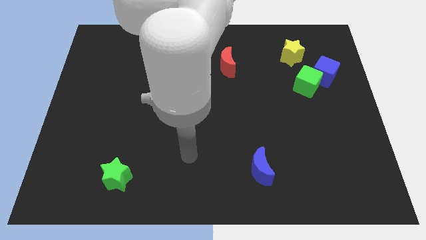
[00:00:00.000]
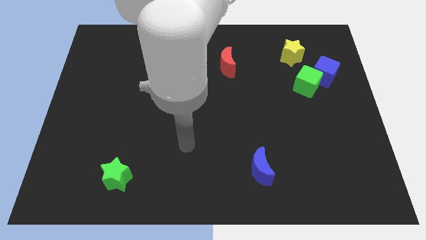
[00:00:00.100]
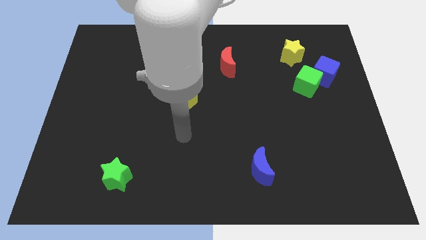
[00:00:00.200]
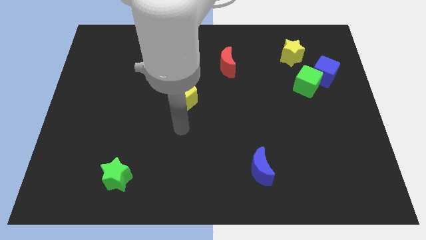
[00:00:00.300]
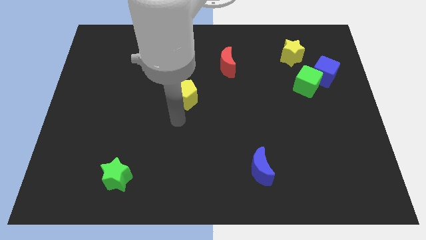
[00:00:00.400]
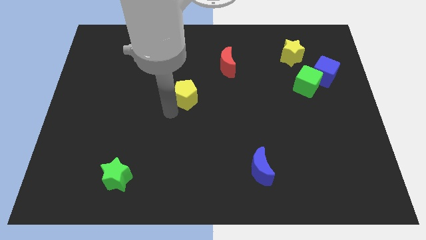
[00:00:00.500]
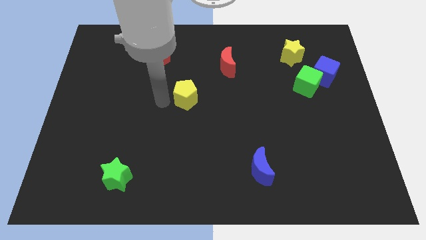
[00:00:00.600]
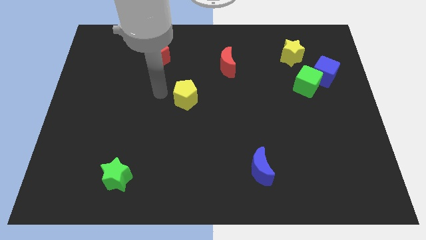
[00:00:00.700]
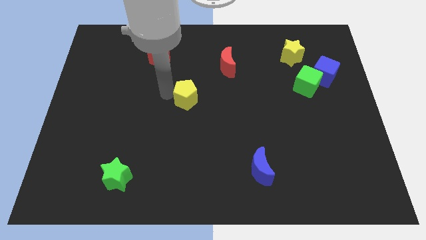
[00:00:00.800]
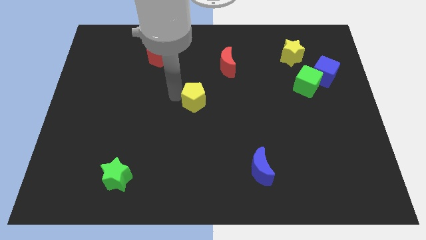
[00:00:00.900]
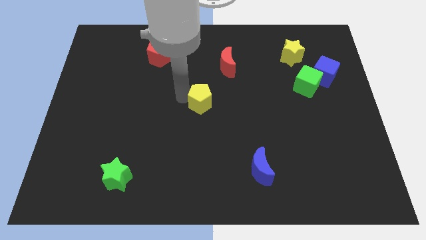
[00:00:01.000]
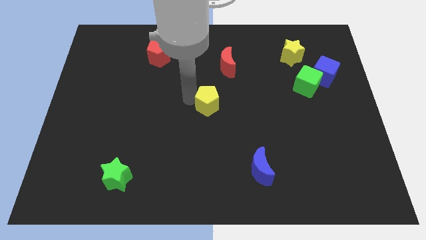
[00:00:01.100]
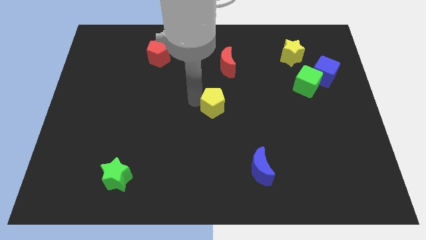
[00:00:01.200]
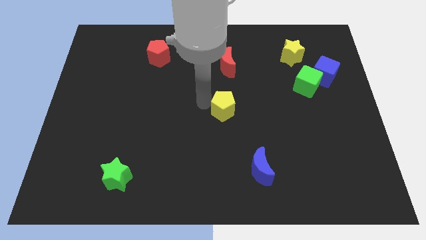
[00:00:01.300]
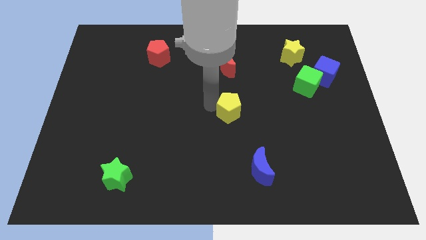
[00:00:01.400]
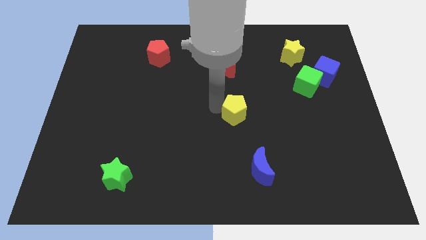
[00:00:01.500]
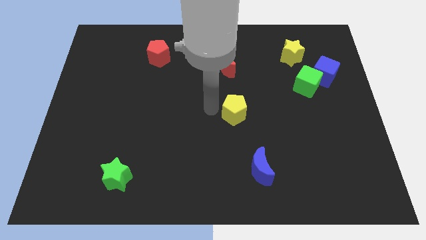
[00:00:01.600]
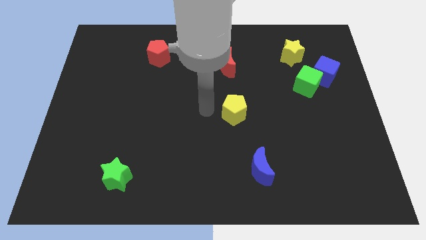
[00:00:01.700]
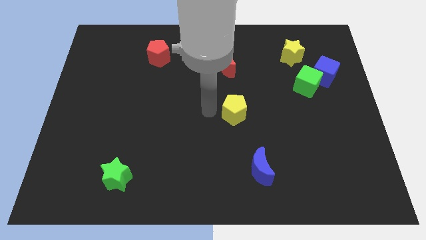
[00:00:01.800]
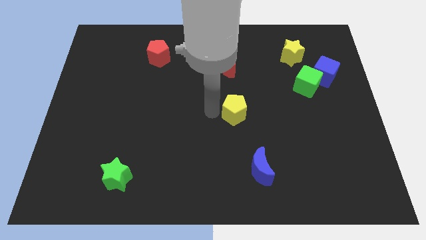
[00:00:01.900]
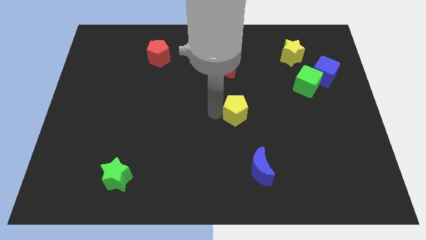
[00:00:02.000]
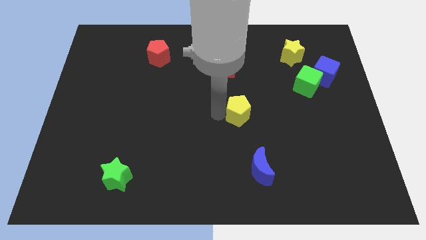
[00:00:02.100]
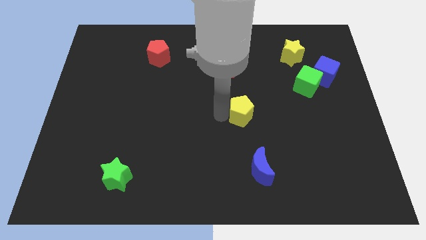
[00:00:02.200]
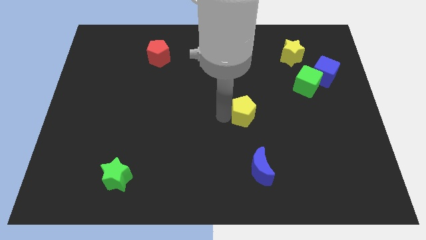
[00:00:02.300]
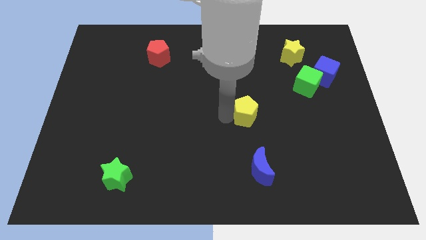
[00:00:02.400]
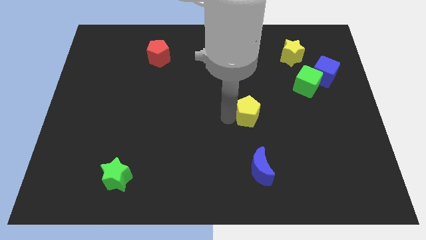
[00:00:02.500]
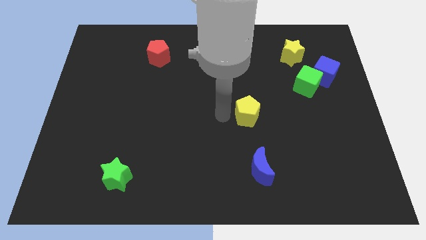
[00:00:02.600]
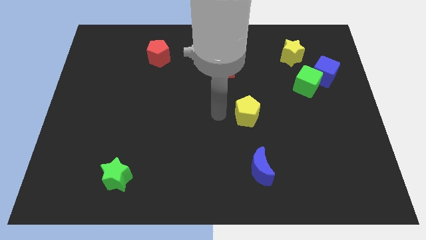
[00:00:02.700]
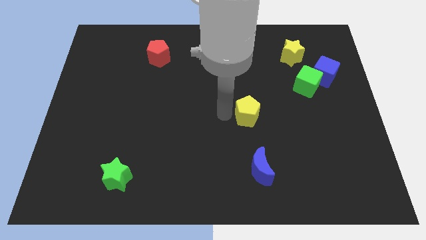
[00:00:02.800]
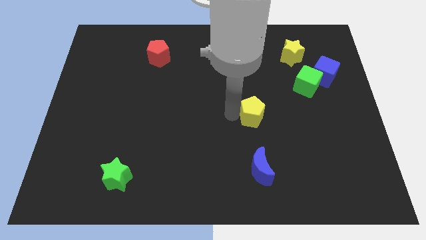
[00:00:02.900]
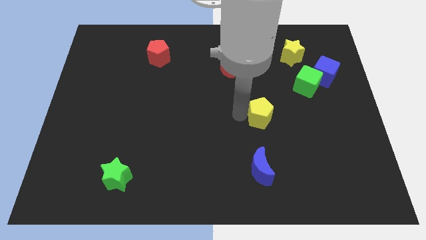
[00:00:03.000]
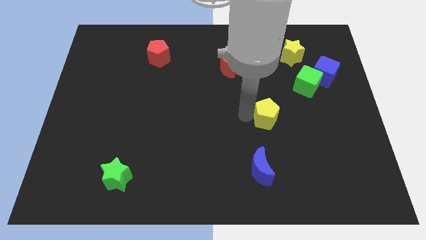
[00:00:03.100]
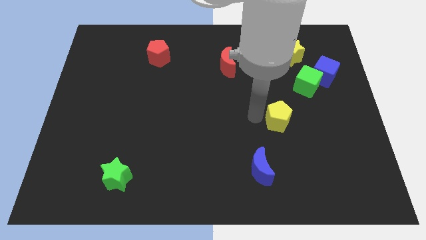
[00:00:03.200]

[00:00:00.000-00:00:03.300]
push the yellow pentagon right

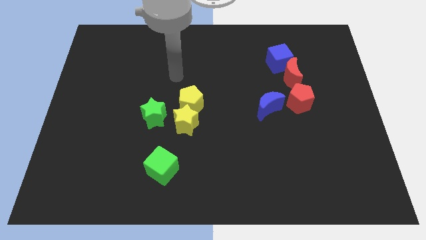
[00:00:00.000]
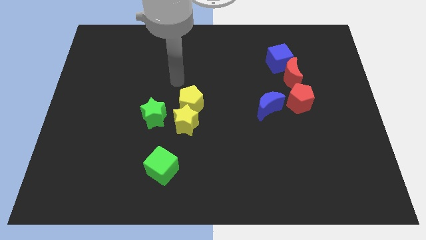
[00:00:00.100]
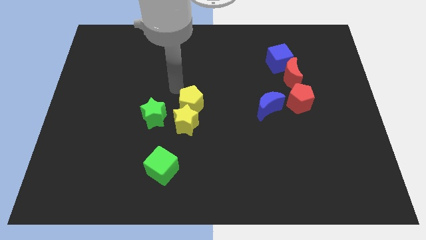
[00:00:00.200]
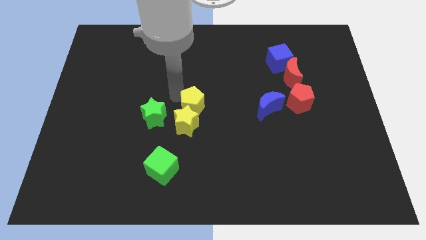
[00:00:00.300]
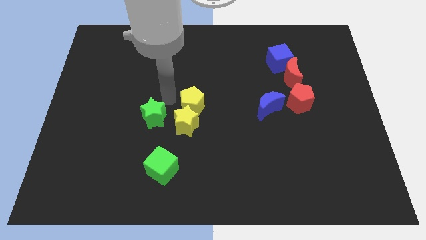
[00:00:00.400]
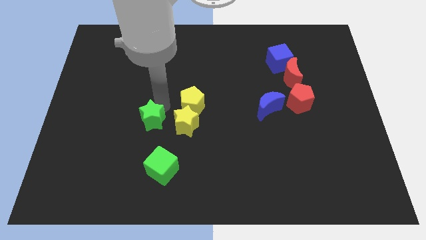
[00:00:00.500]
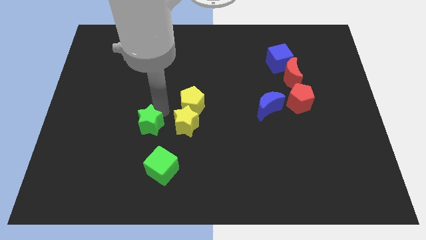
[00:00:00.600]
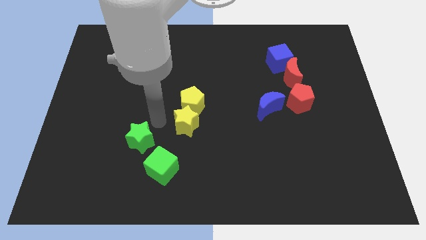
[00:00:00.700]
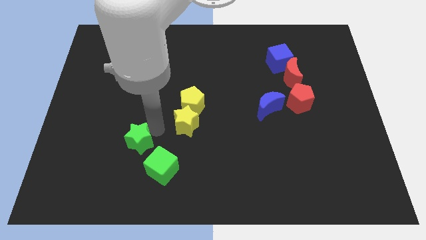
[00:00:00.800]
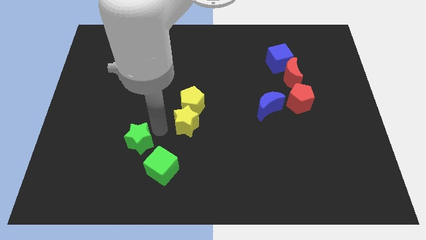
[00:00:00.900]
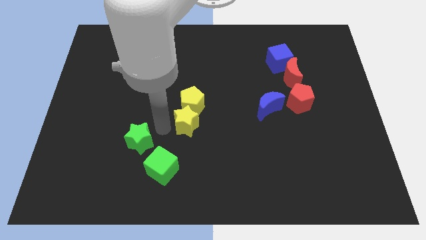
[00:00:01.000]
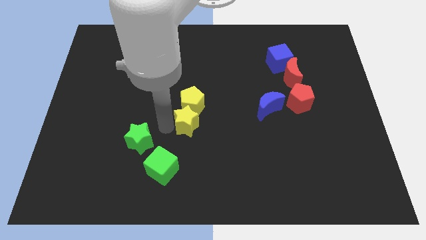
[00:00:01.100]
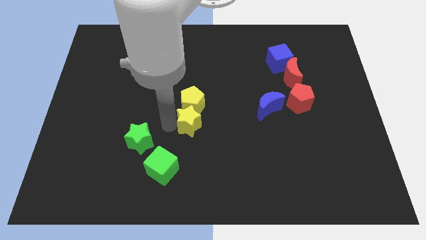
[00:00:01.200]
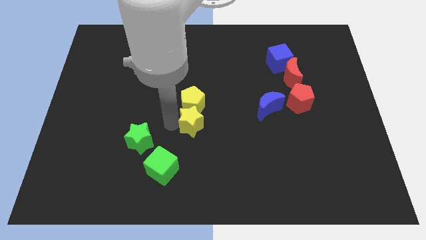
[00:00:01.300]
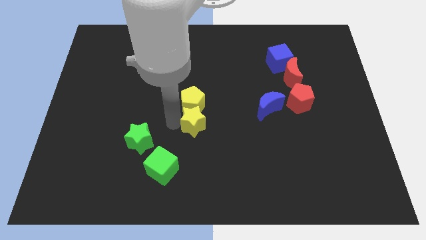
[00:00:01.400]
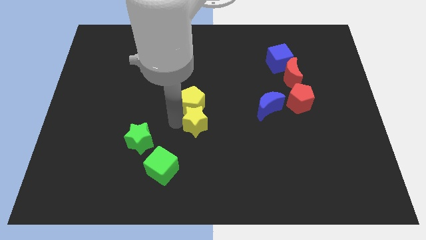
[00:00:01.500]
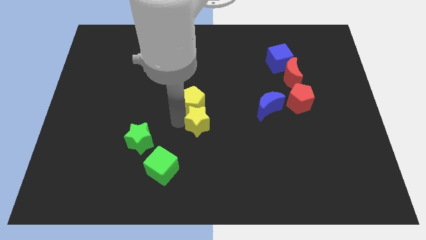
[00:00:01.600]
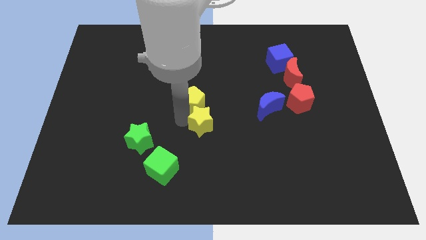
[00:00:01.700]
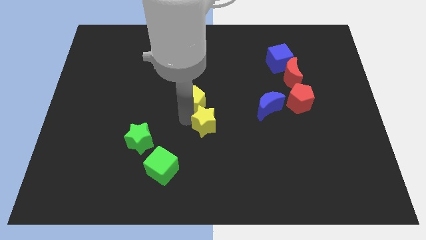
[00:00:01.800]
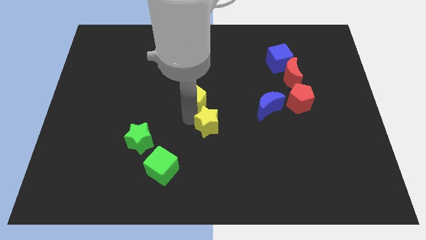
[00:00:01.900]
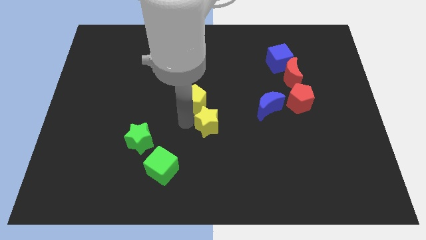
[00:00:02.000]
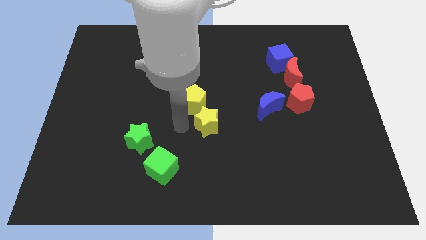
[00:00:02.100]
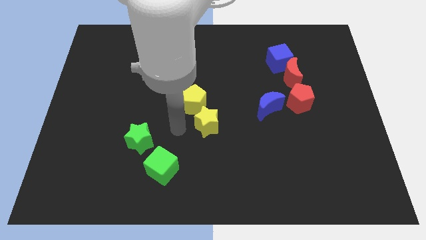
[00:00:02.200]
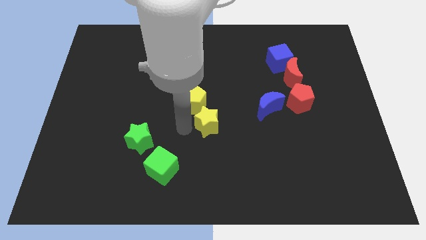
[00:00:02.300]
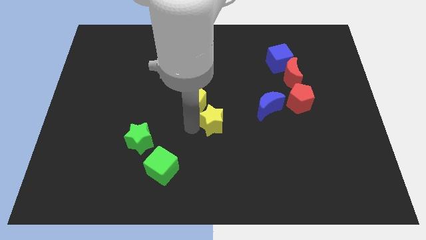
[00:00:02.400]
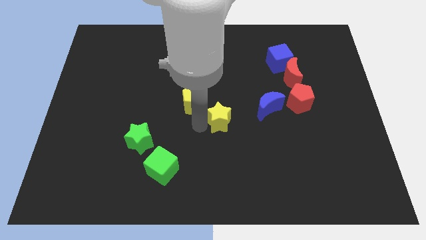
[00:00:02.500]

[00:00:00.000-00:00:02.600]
slide the yellow star to the right slightly

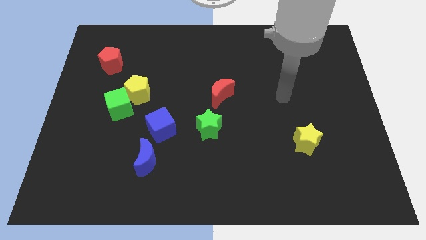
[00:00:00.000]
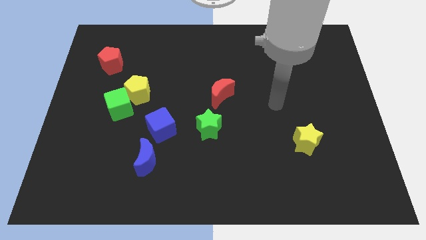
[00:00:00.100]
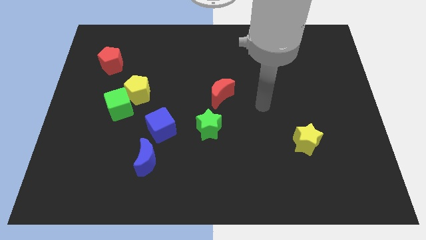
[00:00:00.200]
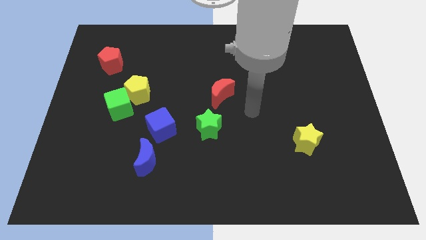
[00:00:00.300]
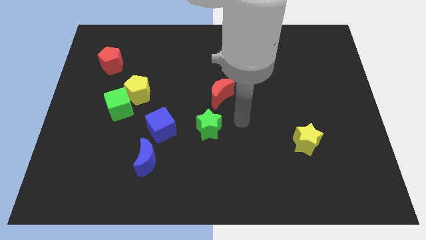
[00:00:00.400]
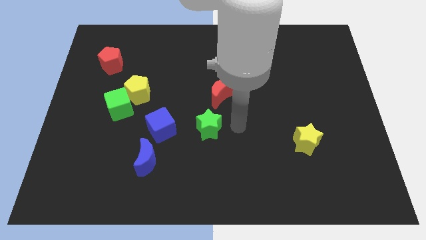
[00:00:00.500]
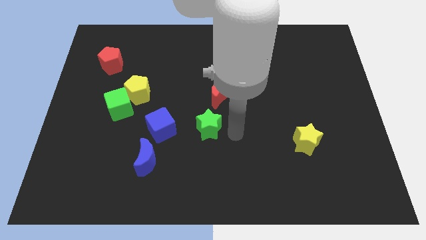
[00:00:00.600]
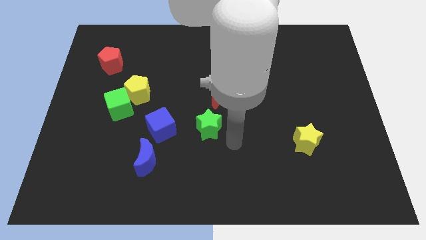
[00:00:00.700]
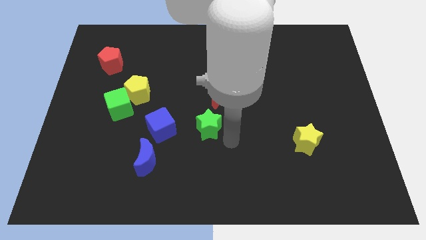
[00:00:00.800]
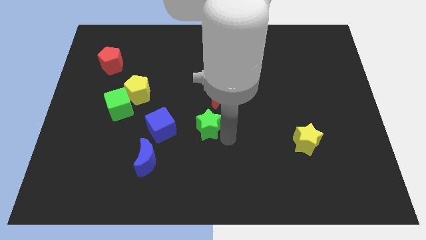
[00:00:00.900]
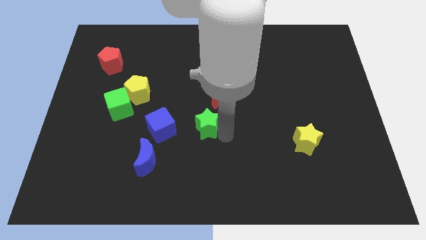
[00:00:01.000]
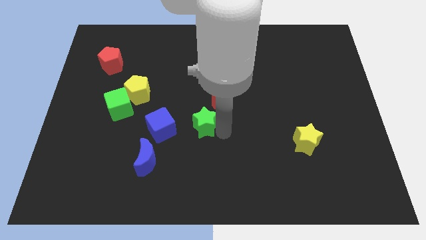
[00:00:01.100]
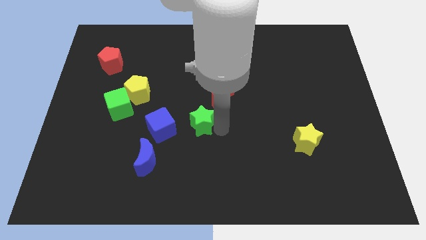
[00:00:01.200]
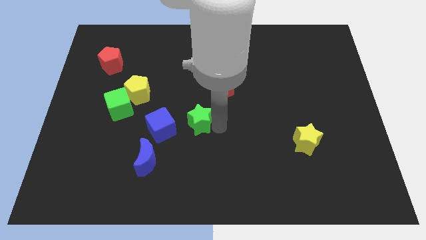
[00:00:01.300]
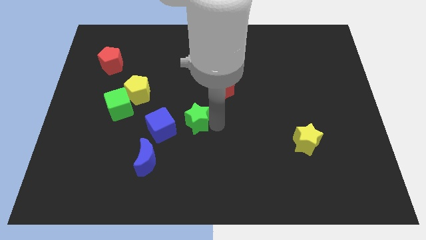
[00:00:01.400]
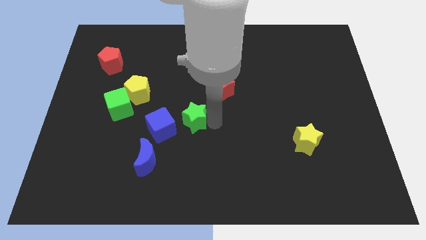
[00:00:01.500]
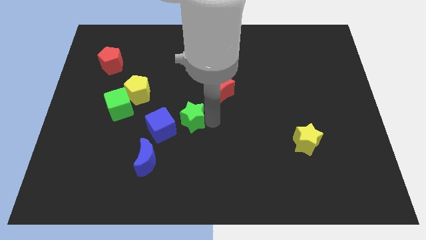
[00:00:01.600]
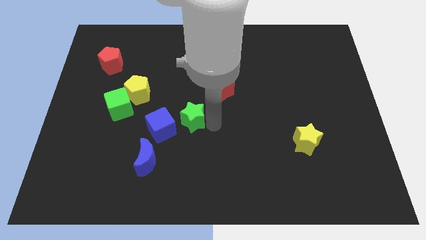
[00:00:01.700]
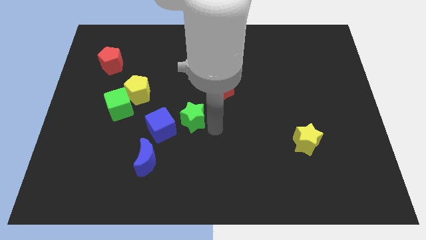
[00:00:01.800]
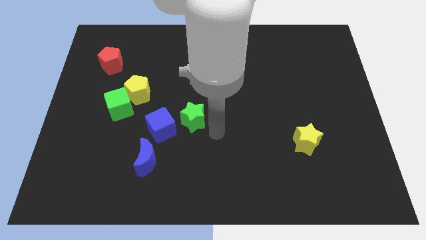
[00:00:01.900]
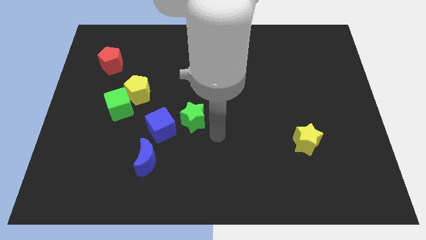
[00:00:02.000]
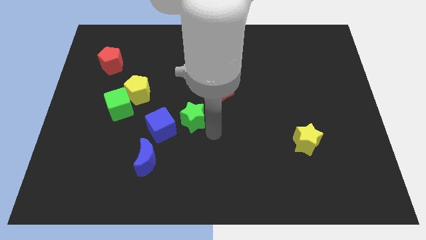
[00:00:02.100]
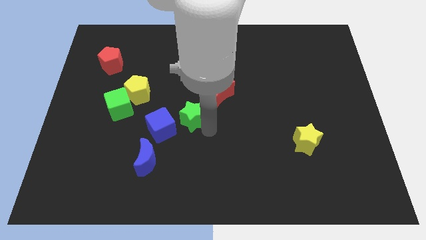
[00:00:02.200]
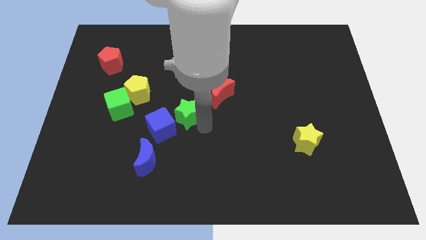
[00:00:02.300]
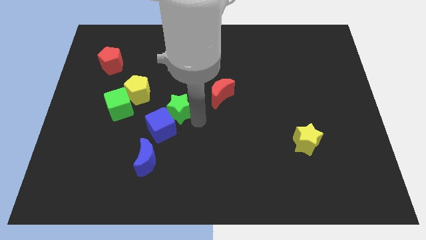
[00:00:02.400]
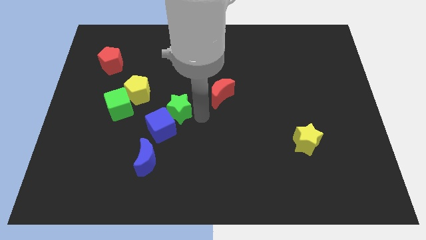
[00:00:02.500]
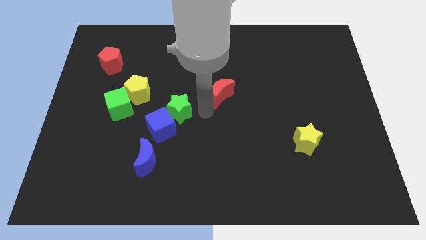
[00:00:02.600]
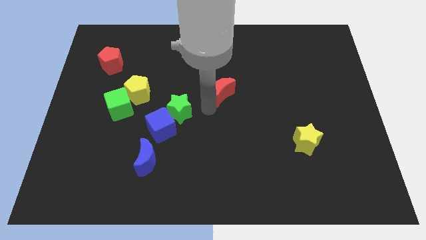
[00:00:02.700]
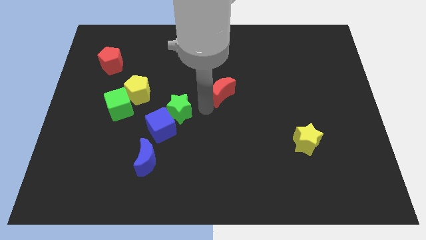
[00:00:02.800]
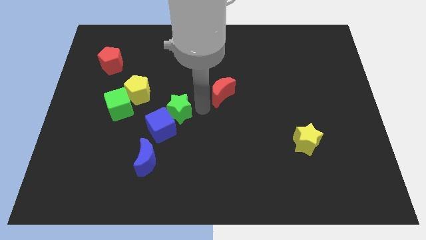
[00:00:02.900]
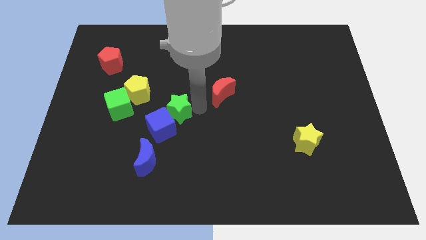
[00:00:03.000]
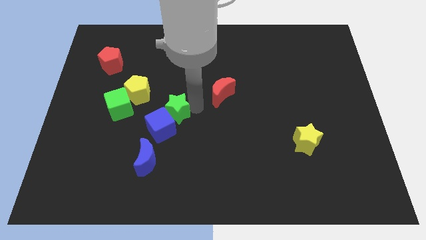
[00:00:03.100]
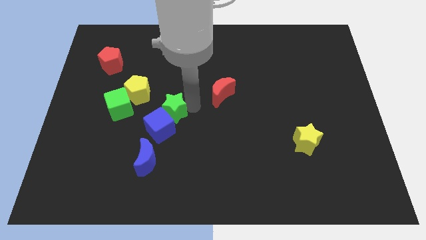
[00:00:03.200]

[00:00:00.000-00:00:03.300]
push the green star to the left a little
